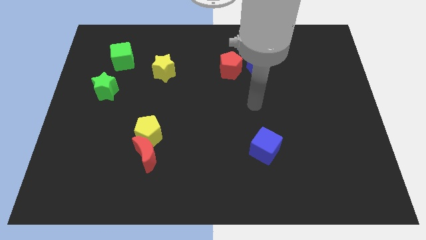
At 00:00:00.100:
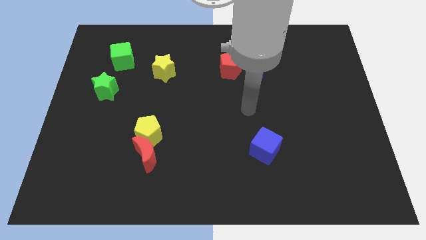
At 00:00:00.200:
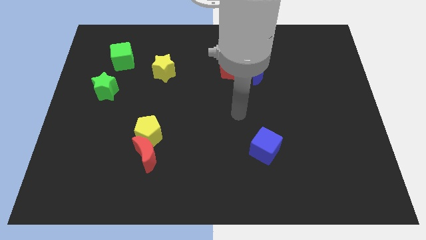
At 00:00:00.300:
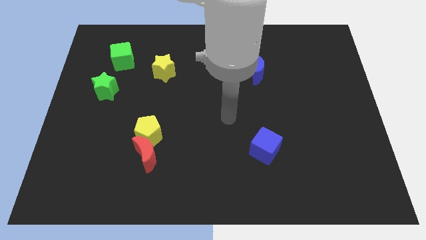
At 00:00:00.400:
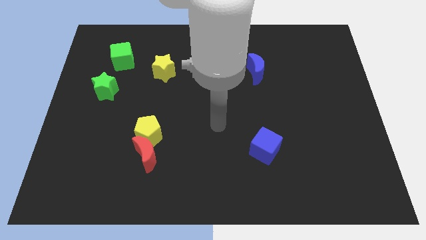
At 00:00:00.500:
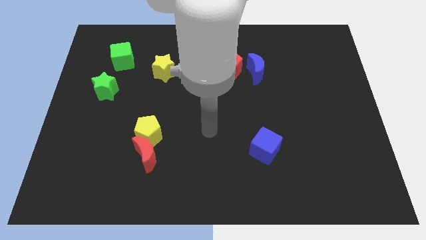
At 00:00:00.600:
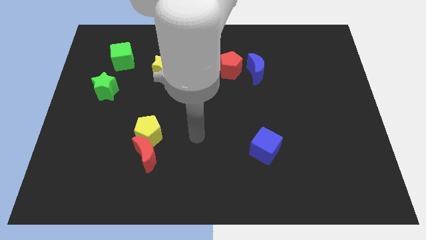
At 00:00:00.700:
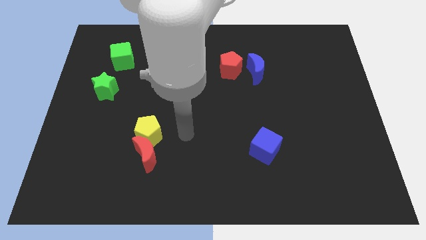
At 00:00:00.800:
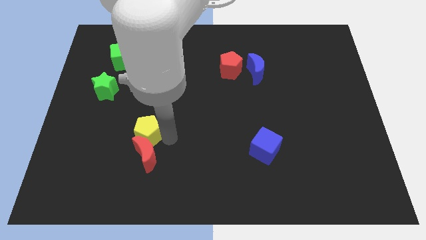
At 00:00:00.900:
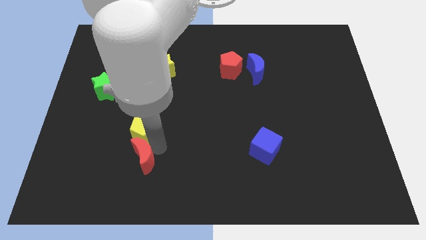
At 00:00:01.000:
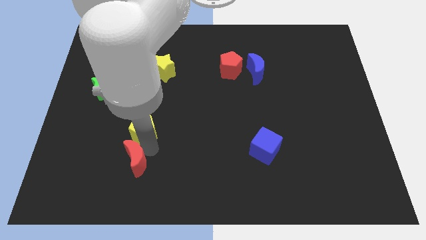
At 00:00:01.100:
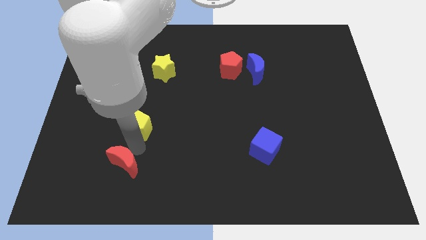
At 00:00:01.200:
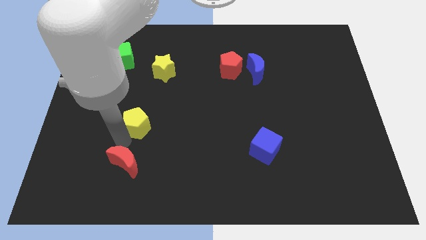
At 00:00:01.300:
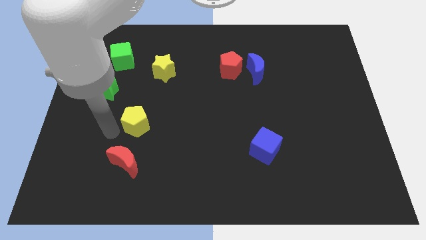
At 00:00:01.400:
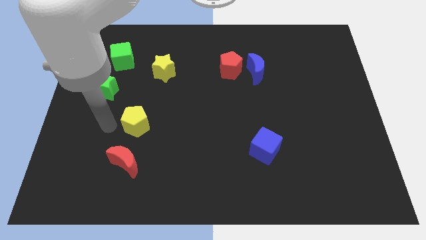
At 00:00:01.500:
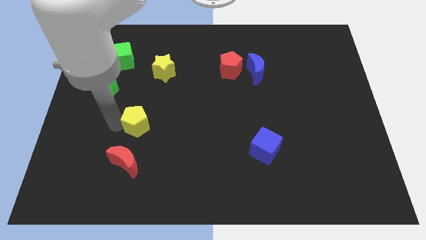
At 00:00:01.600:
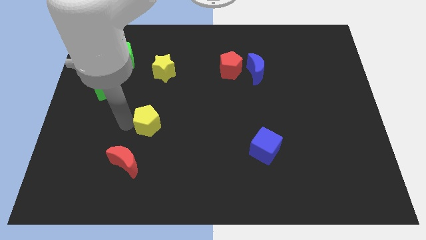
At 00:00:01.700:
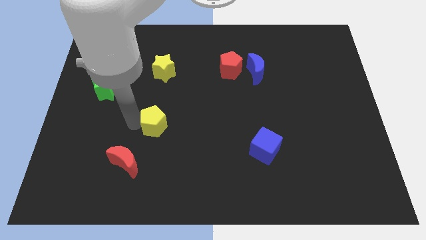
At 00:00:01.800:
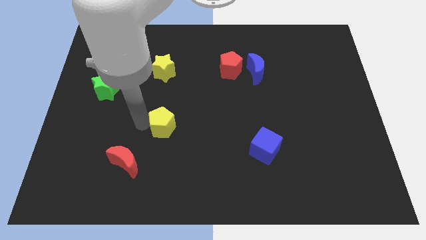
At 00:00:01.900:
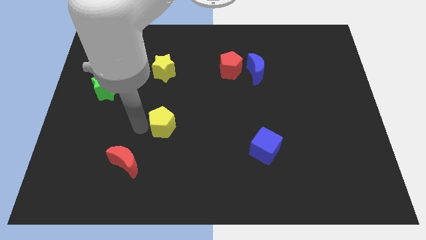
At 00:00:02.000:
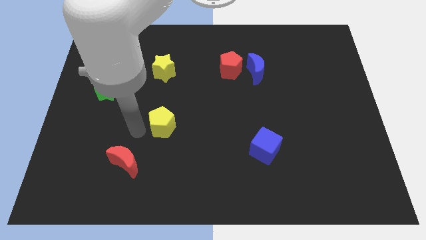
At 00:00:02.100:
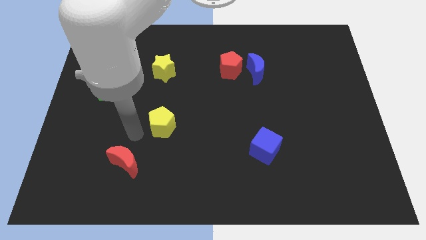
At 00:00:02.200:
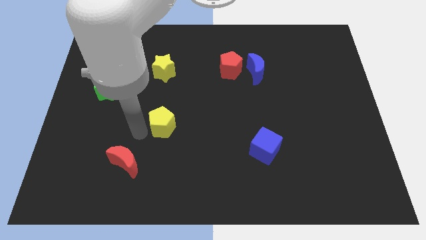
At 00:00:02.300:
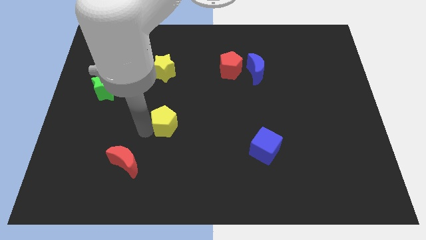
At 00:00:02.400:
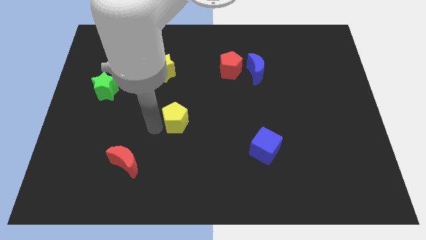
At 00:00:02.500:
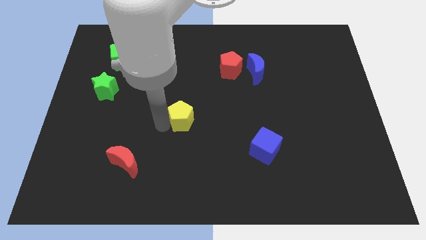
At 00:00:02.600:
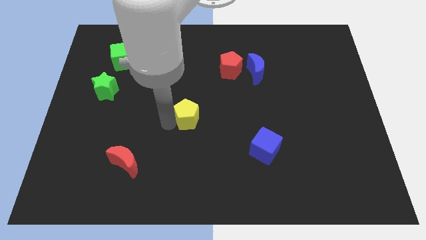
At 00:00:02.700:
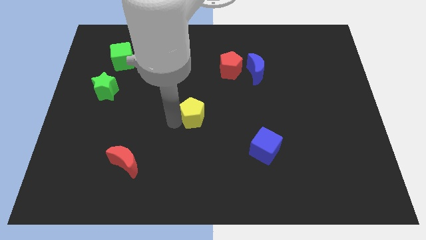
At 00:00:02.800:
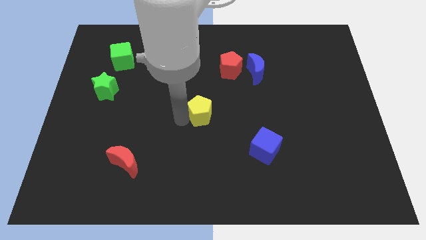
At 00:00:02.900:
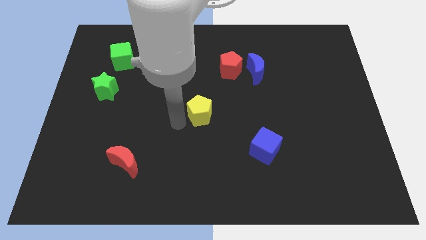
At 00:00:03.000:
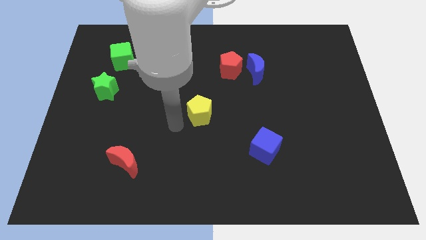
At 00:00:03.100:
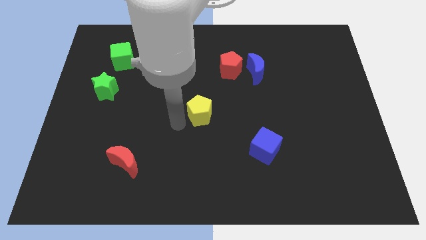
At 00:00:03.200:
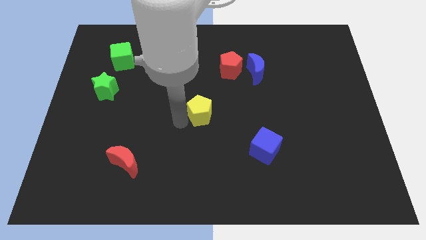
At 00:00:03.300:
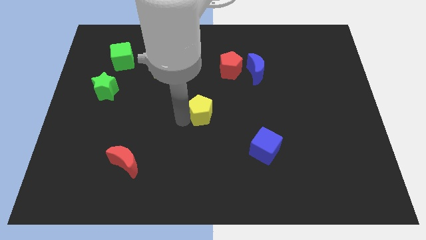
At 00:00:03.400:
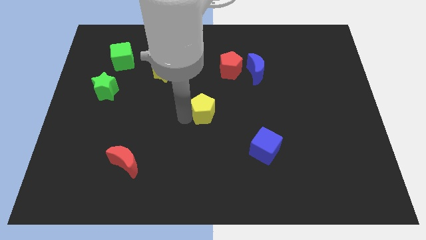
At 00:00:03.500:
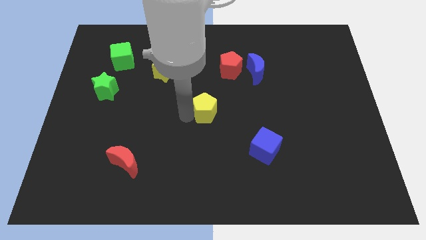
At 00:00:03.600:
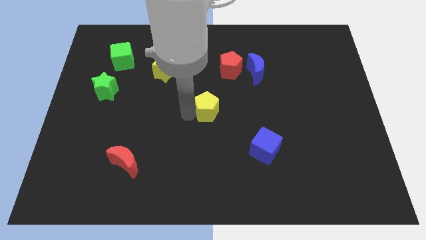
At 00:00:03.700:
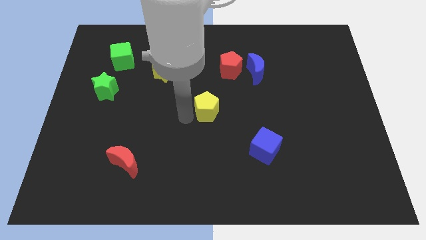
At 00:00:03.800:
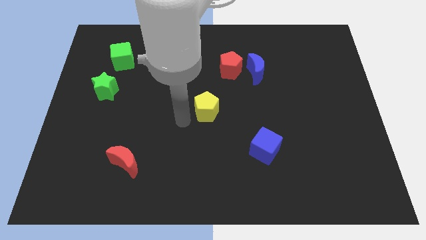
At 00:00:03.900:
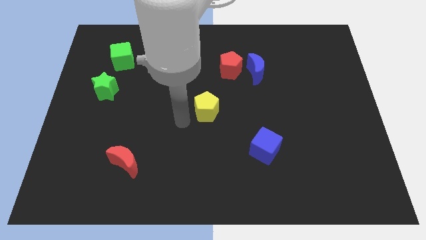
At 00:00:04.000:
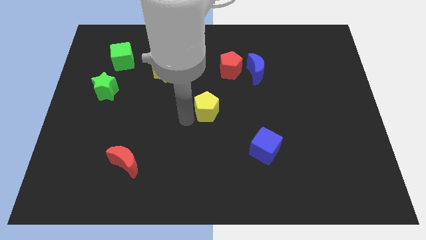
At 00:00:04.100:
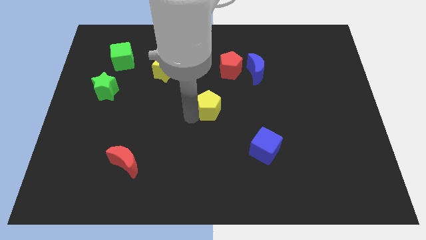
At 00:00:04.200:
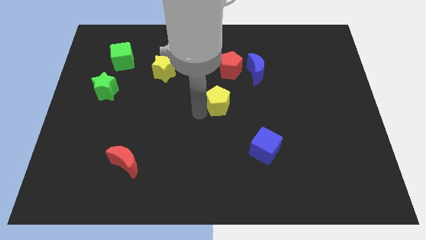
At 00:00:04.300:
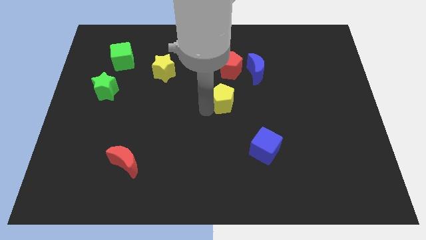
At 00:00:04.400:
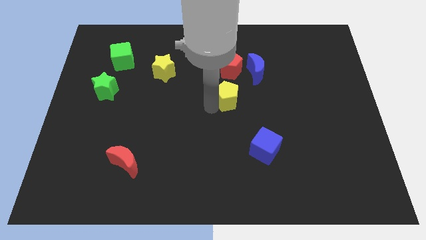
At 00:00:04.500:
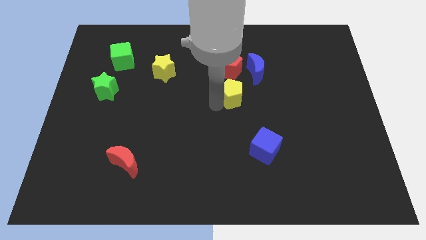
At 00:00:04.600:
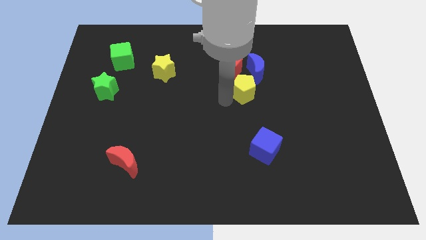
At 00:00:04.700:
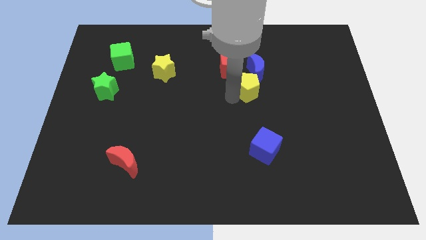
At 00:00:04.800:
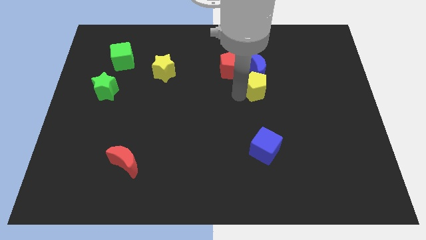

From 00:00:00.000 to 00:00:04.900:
move the yellow pentagon close to the blue moon

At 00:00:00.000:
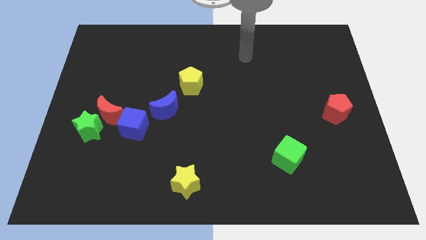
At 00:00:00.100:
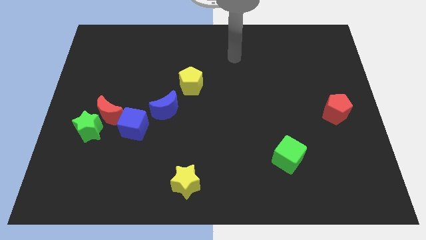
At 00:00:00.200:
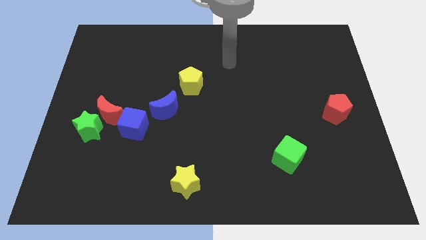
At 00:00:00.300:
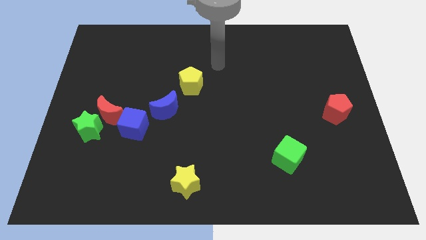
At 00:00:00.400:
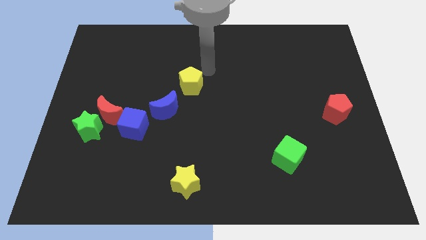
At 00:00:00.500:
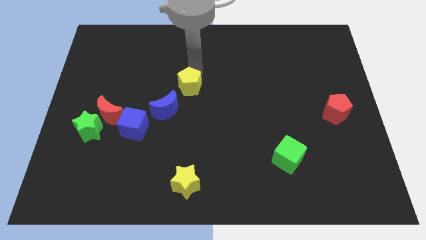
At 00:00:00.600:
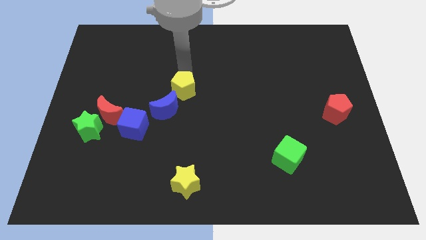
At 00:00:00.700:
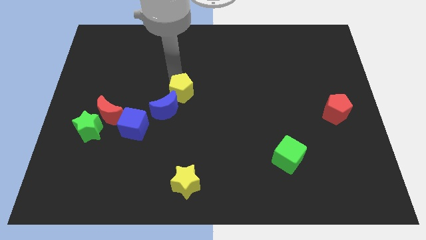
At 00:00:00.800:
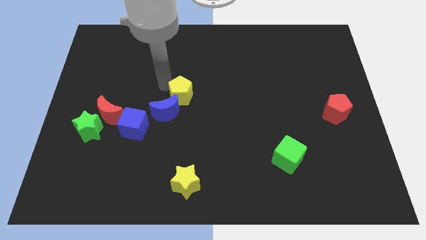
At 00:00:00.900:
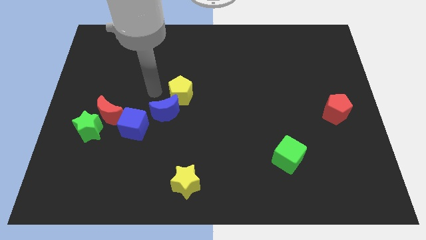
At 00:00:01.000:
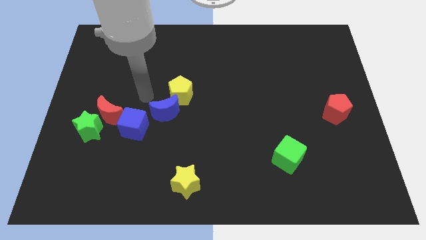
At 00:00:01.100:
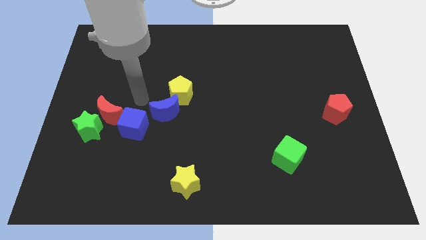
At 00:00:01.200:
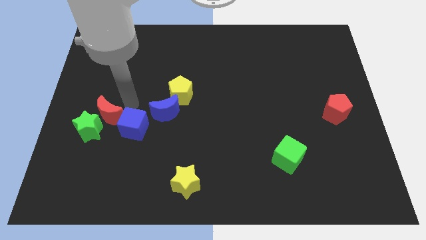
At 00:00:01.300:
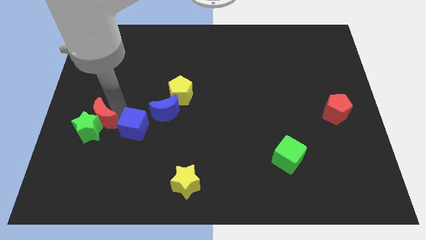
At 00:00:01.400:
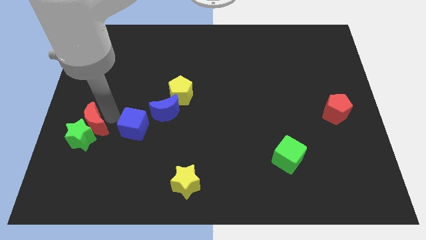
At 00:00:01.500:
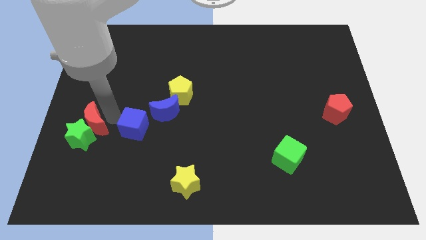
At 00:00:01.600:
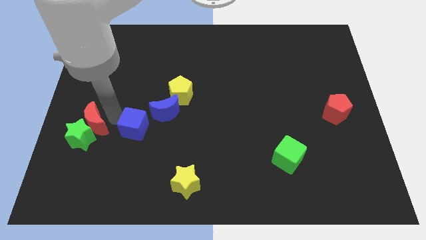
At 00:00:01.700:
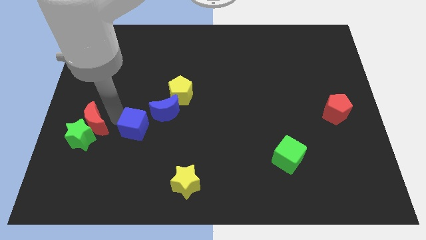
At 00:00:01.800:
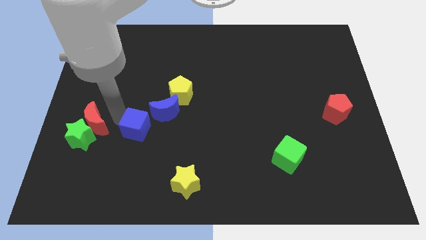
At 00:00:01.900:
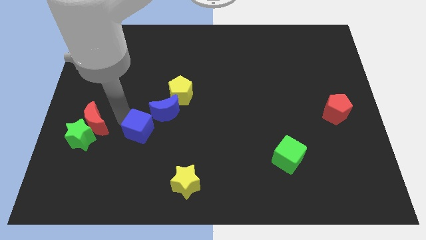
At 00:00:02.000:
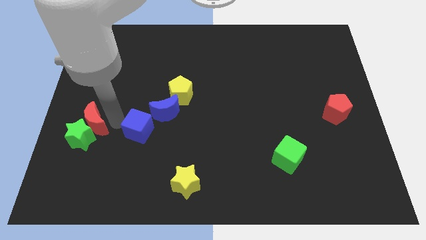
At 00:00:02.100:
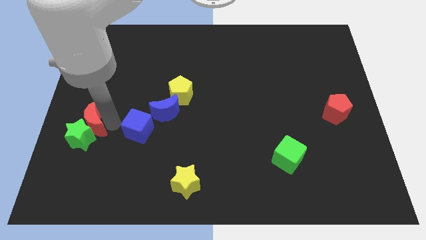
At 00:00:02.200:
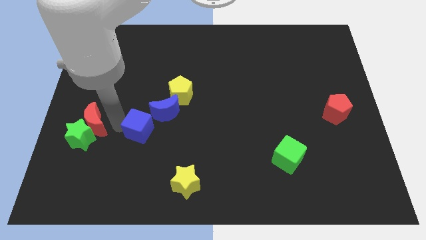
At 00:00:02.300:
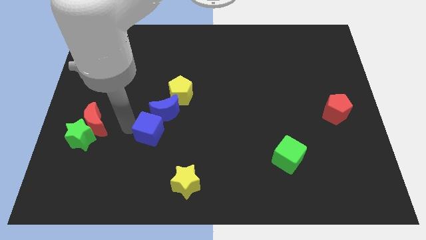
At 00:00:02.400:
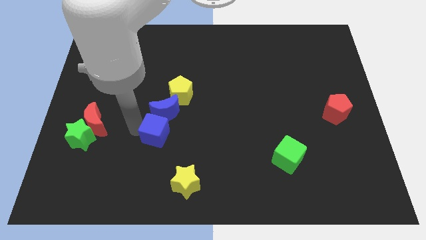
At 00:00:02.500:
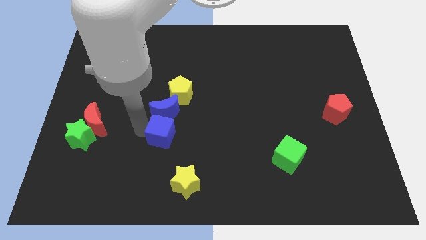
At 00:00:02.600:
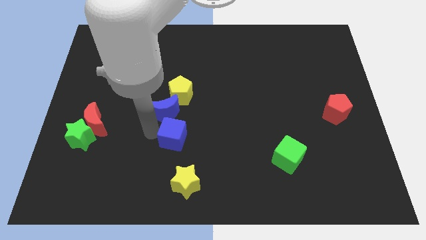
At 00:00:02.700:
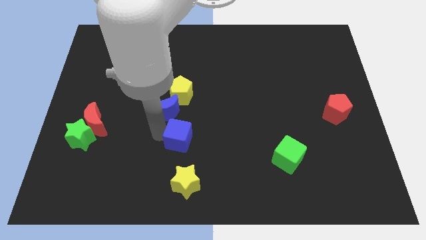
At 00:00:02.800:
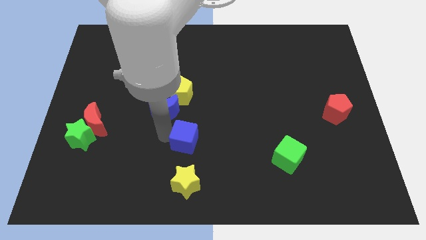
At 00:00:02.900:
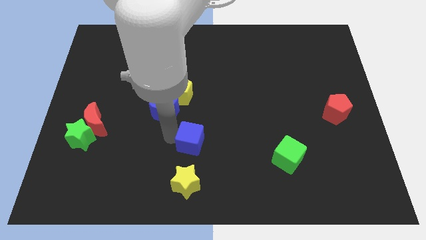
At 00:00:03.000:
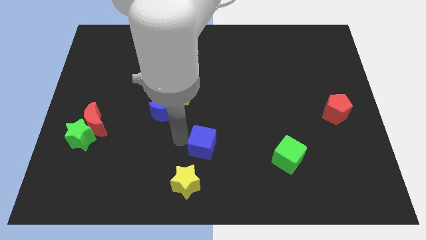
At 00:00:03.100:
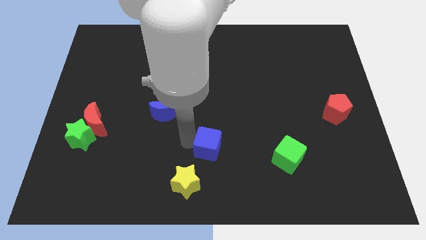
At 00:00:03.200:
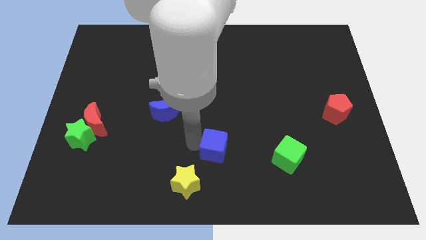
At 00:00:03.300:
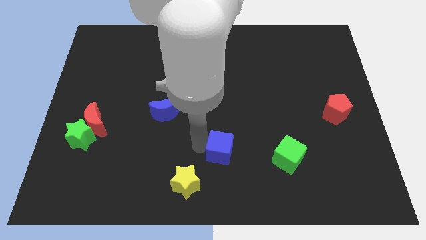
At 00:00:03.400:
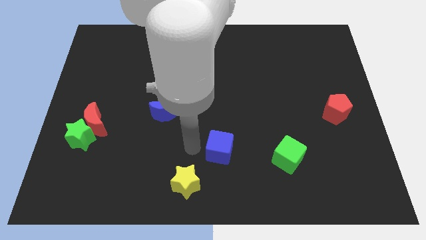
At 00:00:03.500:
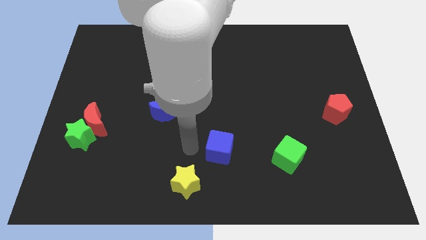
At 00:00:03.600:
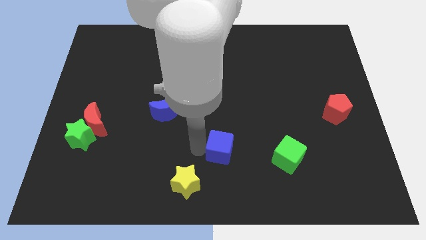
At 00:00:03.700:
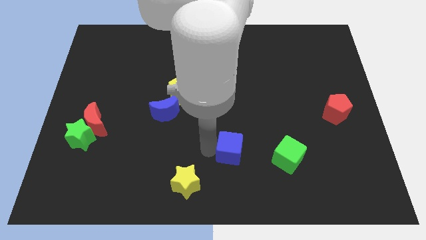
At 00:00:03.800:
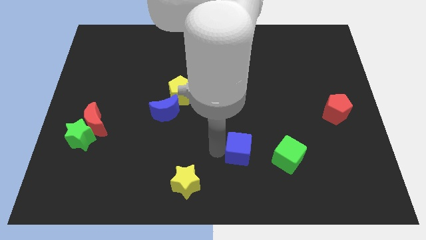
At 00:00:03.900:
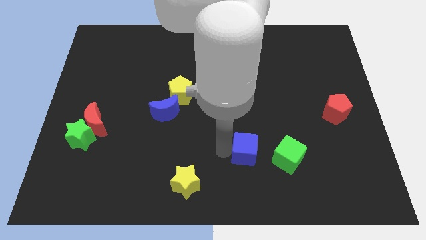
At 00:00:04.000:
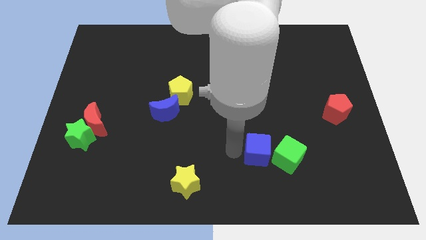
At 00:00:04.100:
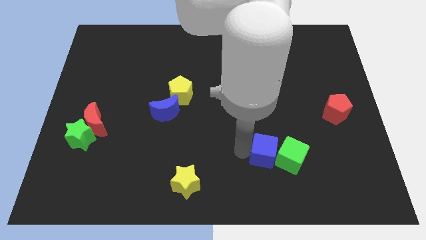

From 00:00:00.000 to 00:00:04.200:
put the blue cube close to the green cube
